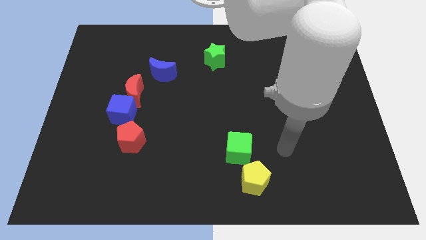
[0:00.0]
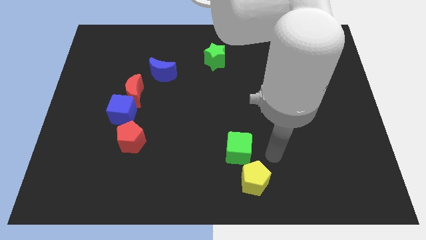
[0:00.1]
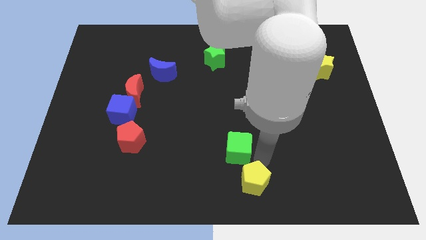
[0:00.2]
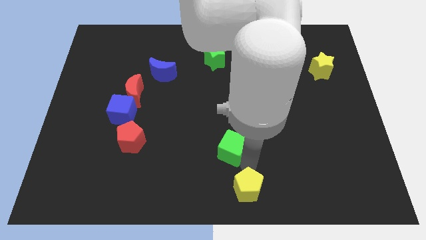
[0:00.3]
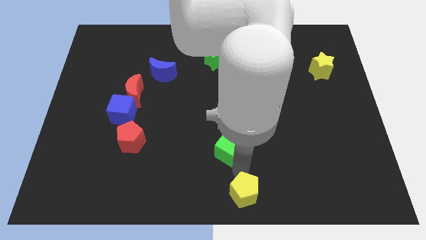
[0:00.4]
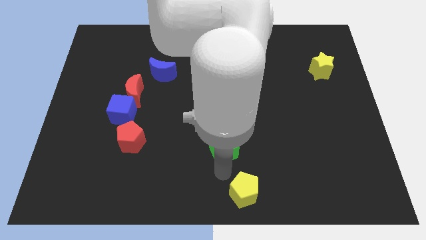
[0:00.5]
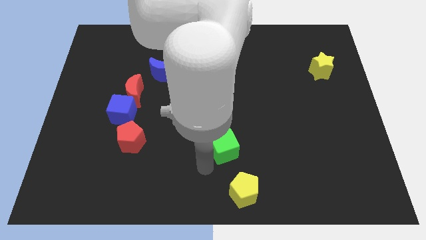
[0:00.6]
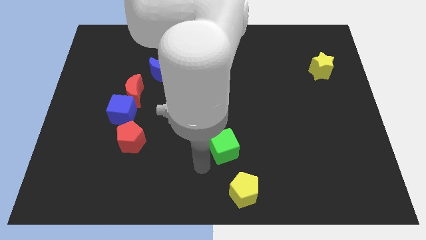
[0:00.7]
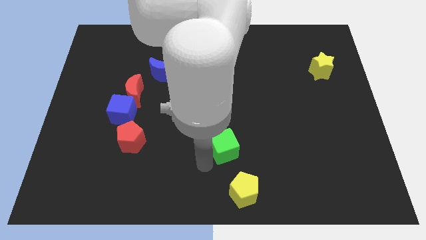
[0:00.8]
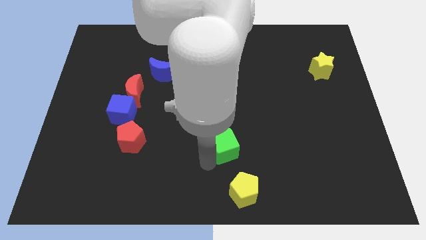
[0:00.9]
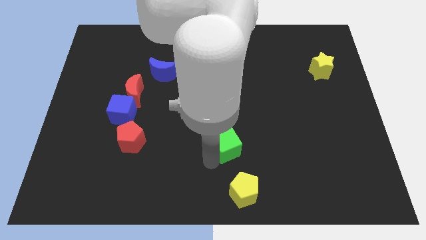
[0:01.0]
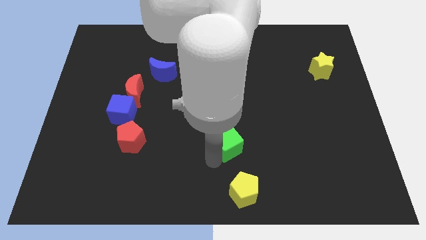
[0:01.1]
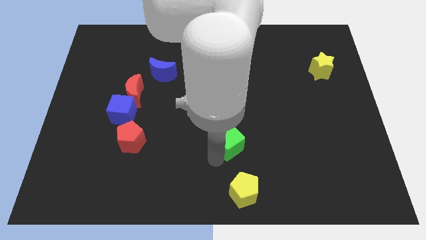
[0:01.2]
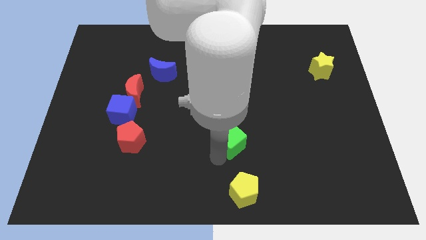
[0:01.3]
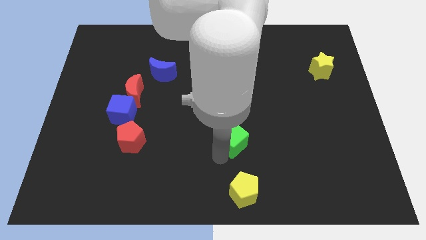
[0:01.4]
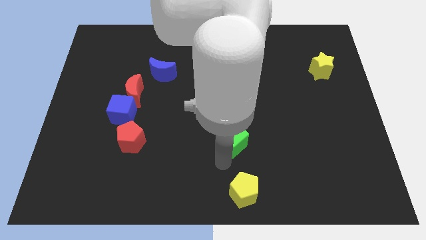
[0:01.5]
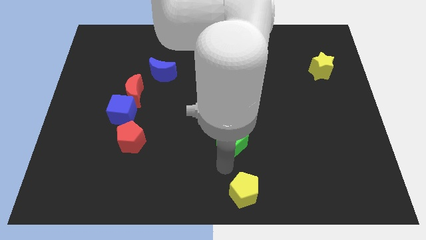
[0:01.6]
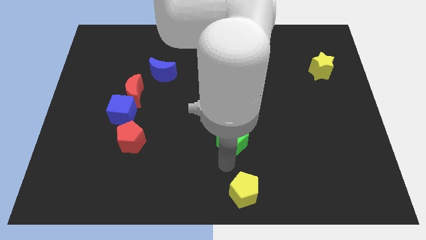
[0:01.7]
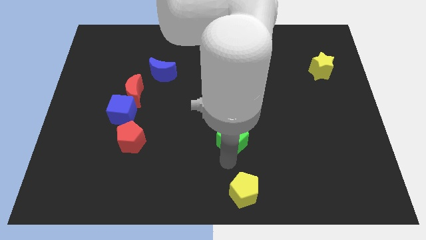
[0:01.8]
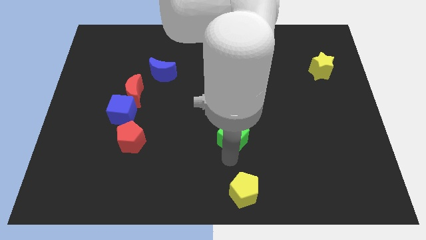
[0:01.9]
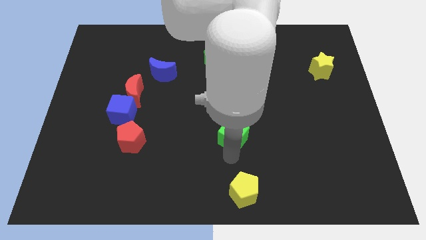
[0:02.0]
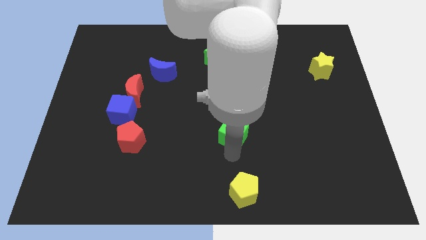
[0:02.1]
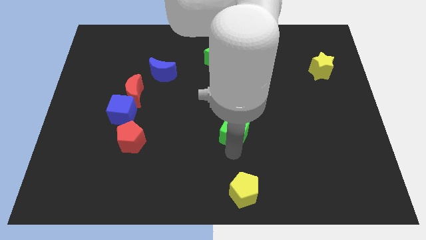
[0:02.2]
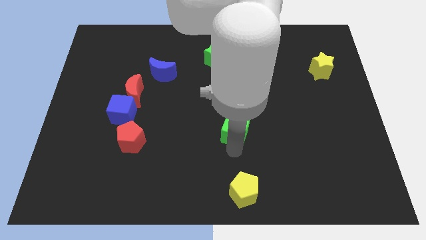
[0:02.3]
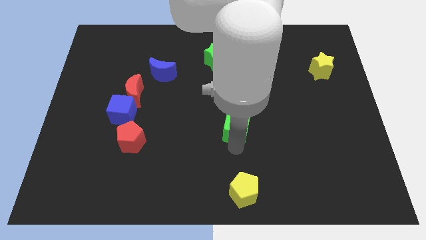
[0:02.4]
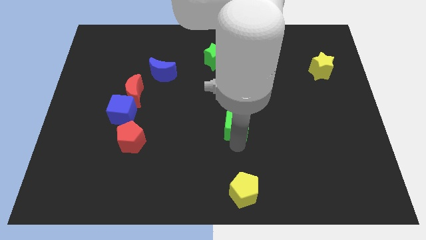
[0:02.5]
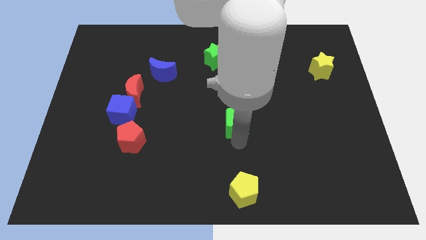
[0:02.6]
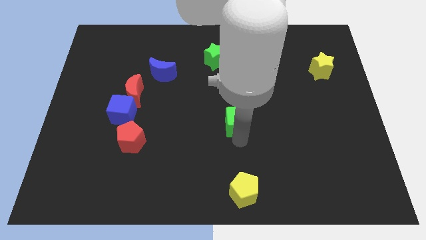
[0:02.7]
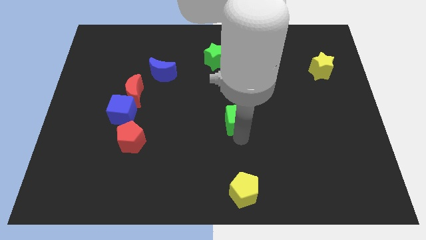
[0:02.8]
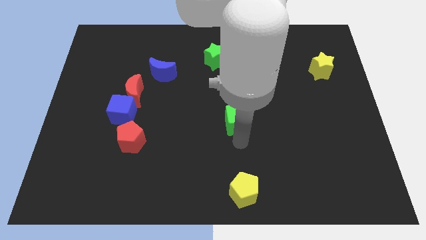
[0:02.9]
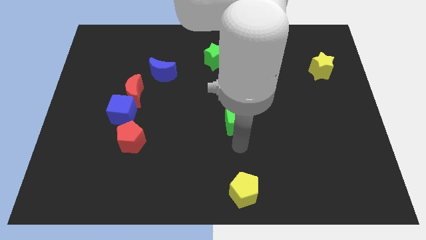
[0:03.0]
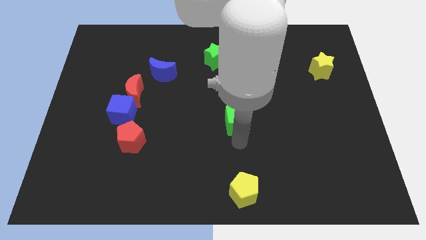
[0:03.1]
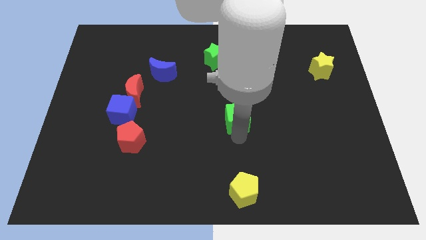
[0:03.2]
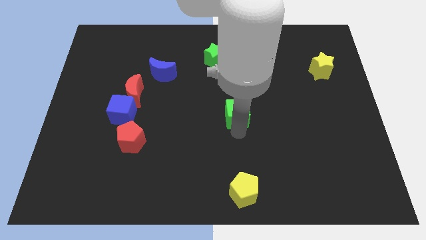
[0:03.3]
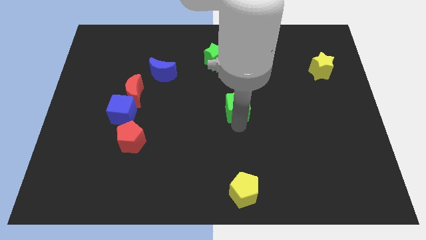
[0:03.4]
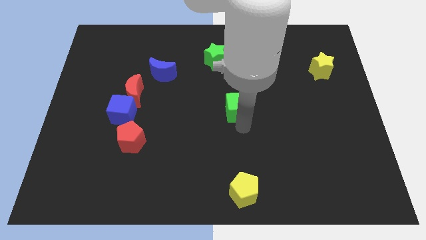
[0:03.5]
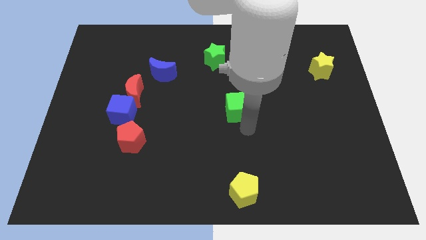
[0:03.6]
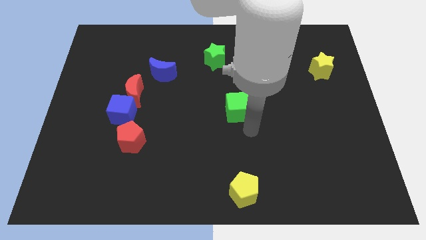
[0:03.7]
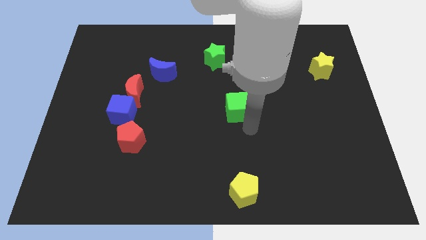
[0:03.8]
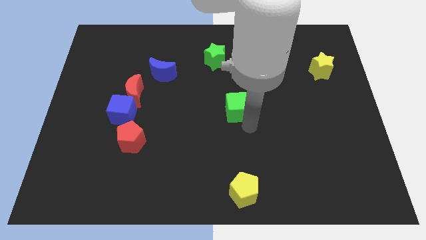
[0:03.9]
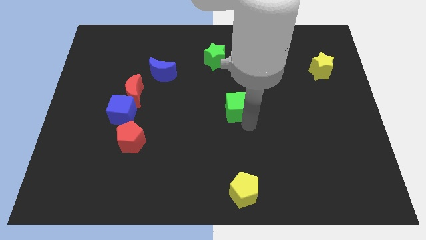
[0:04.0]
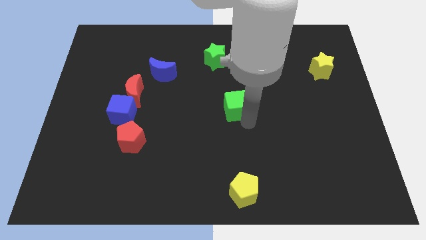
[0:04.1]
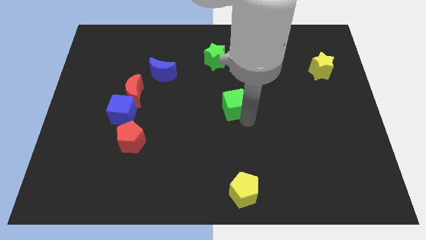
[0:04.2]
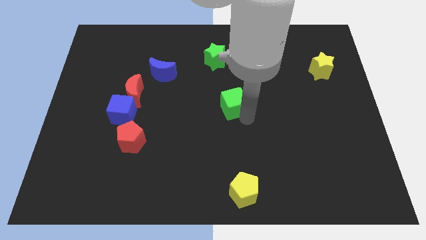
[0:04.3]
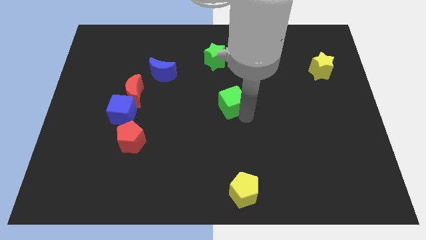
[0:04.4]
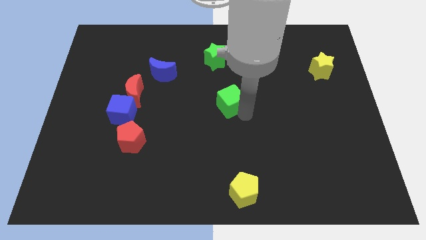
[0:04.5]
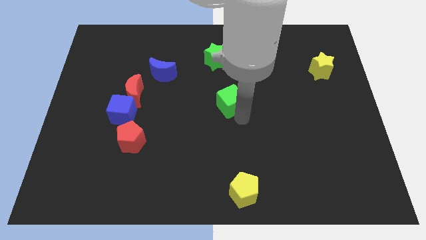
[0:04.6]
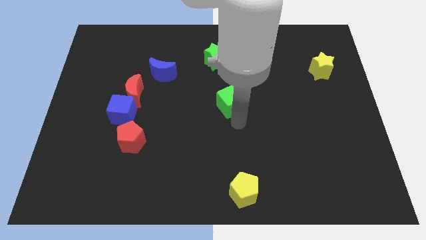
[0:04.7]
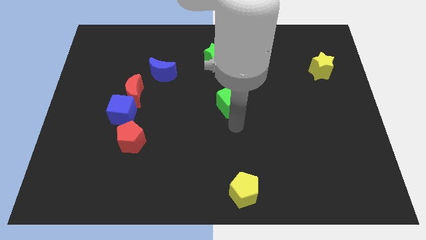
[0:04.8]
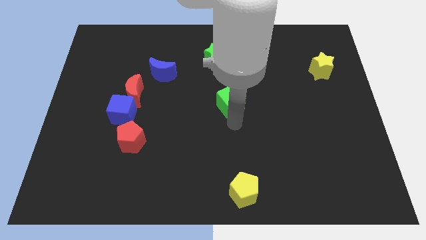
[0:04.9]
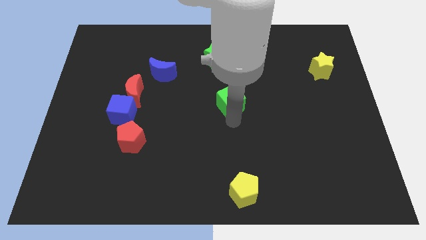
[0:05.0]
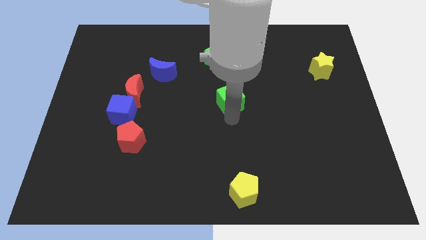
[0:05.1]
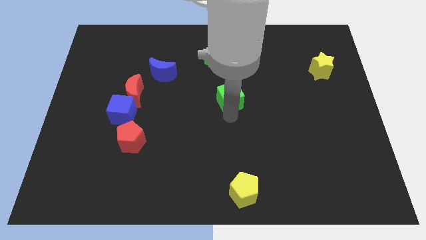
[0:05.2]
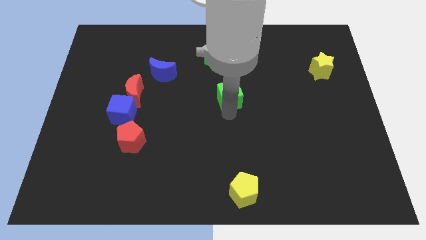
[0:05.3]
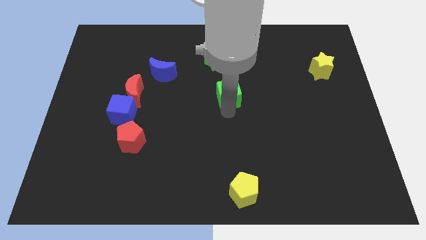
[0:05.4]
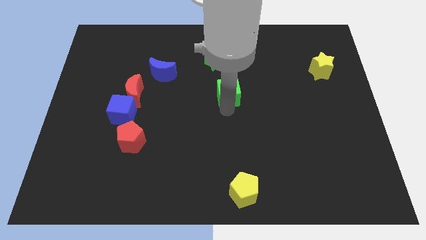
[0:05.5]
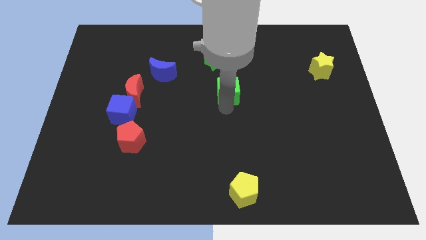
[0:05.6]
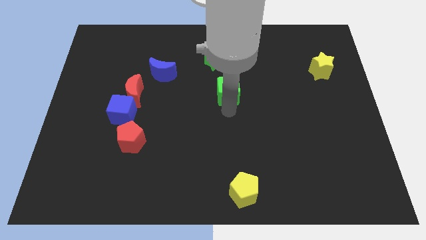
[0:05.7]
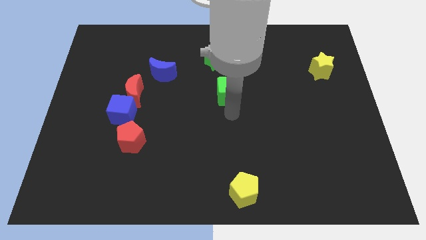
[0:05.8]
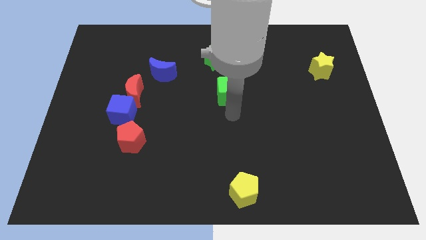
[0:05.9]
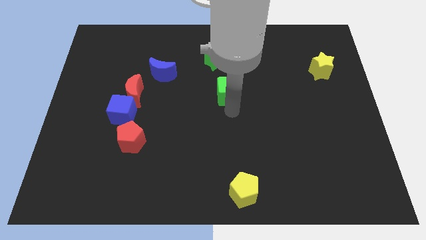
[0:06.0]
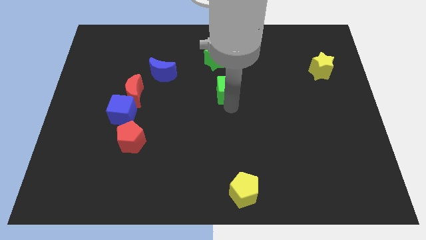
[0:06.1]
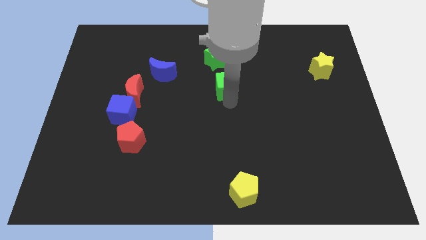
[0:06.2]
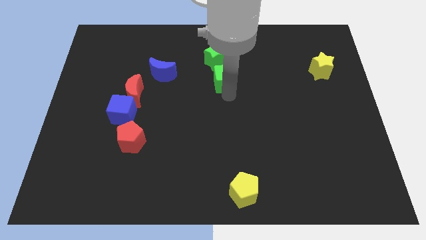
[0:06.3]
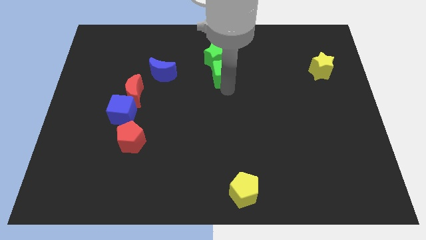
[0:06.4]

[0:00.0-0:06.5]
slide the green cube to the green star

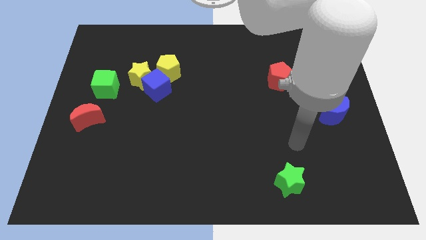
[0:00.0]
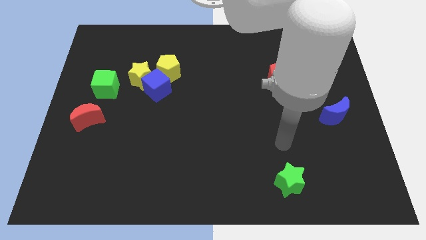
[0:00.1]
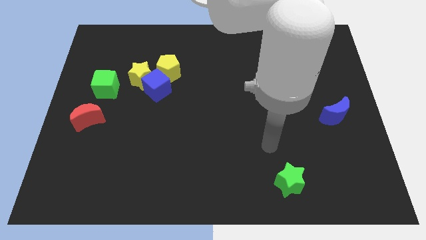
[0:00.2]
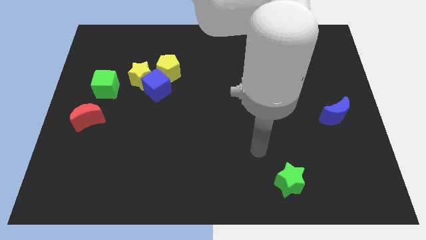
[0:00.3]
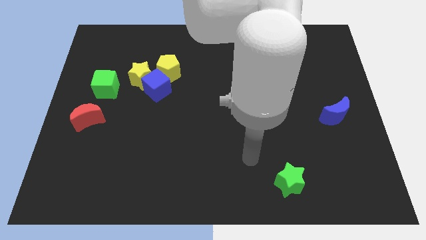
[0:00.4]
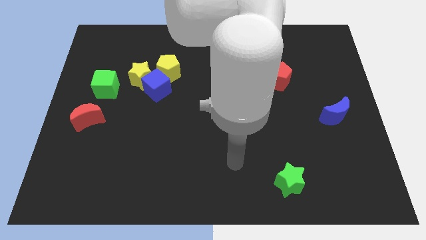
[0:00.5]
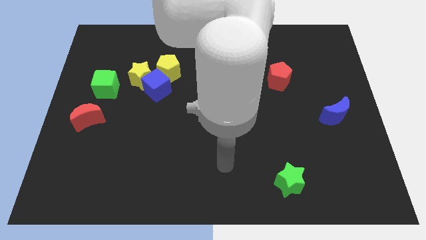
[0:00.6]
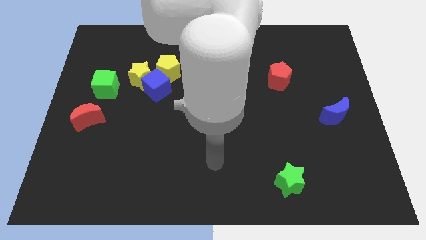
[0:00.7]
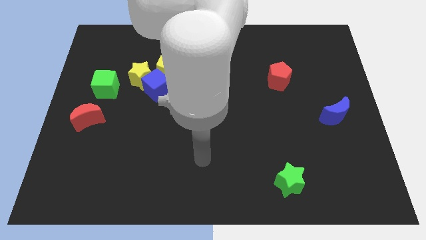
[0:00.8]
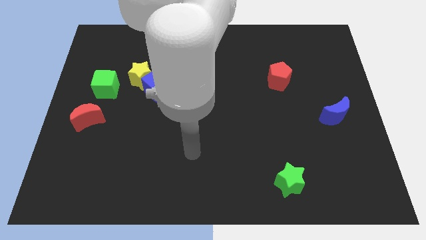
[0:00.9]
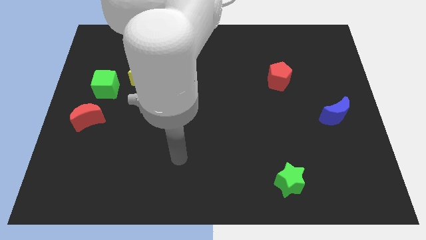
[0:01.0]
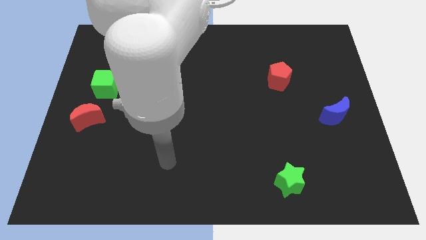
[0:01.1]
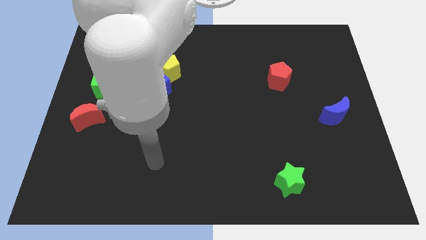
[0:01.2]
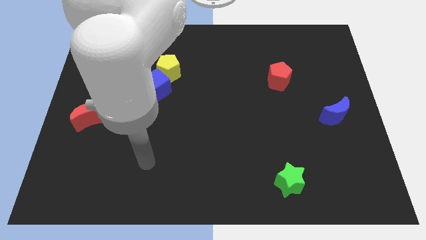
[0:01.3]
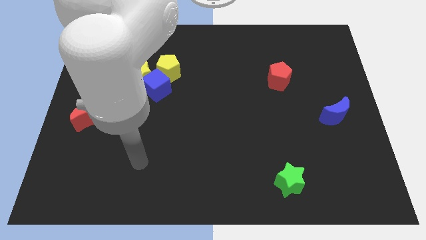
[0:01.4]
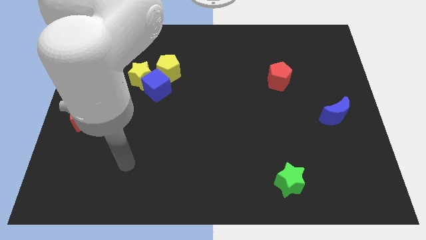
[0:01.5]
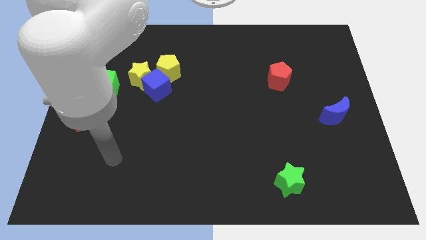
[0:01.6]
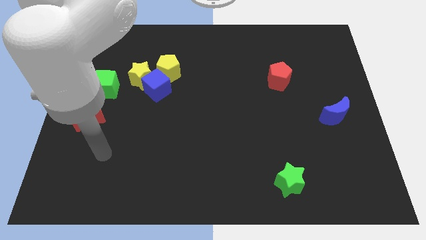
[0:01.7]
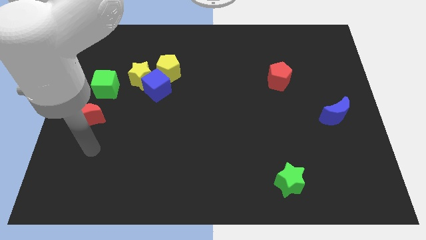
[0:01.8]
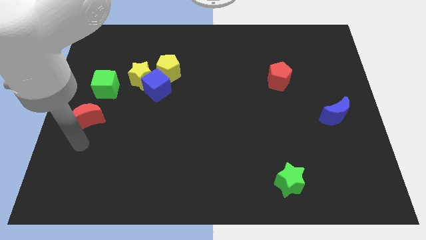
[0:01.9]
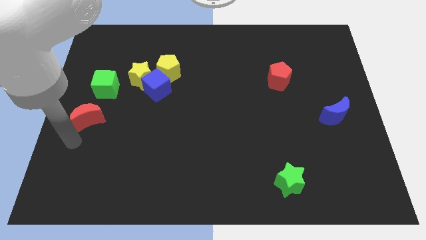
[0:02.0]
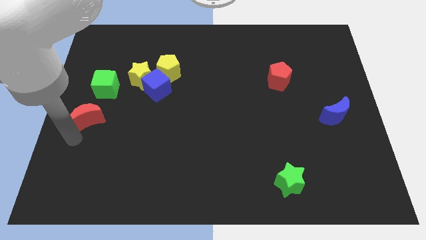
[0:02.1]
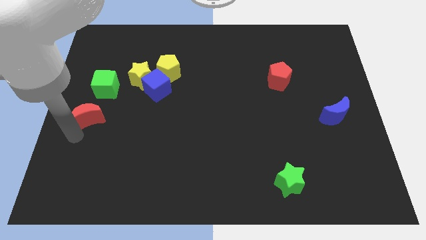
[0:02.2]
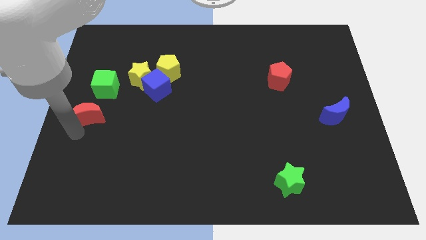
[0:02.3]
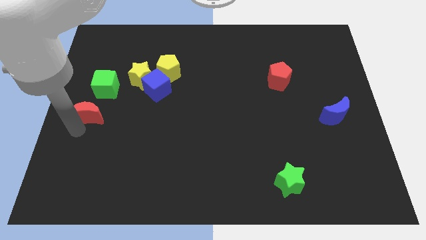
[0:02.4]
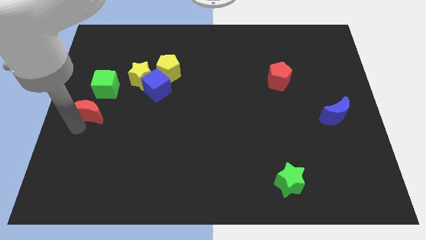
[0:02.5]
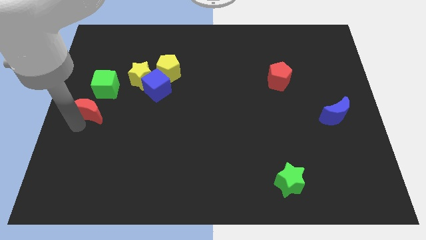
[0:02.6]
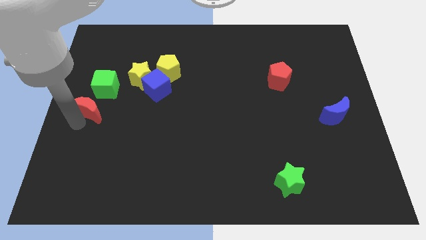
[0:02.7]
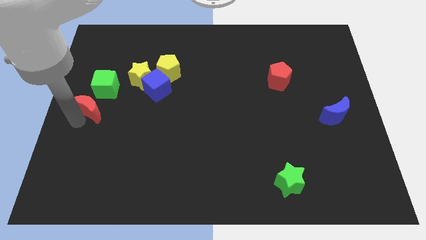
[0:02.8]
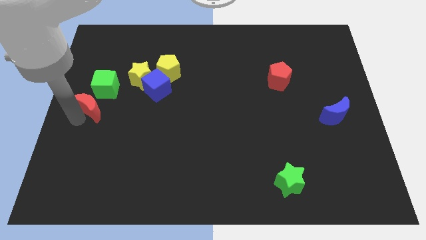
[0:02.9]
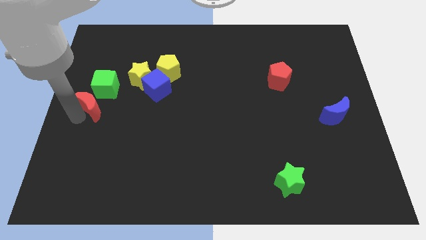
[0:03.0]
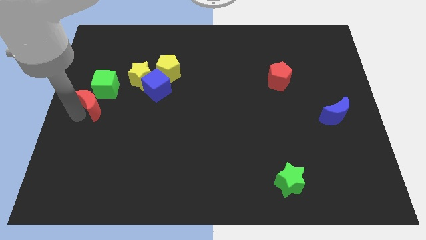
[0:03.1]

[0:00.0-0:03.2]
slide the red moon next to the green cube
